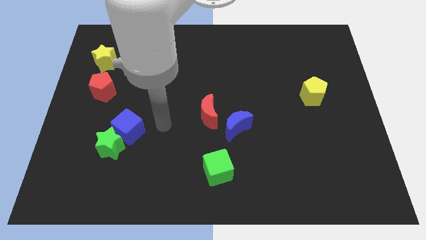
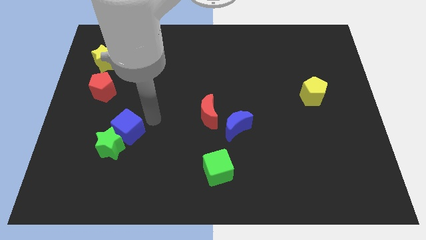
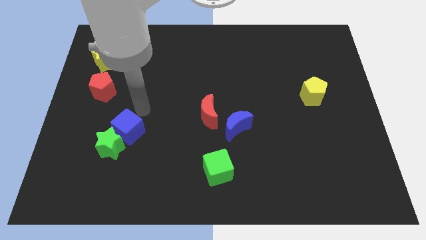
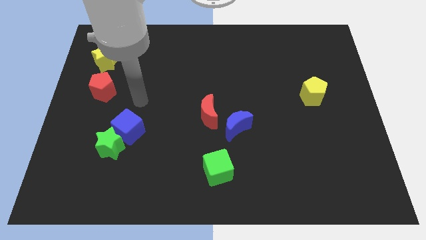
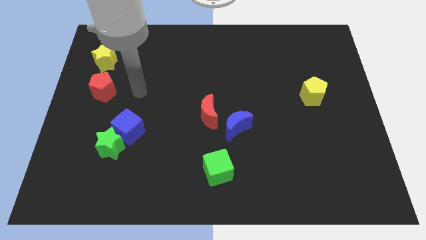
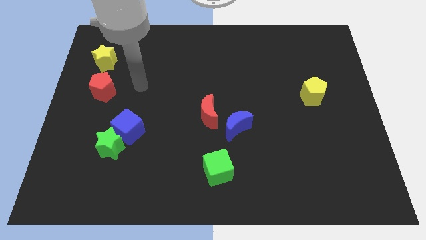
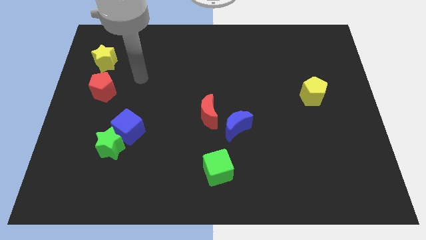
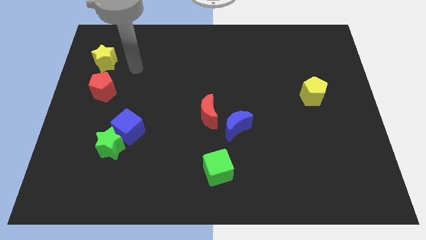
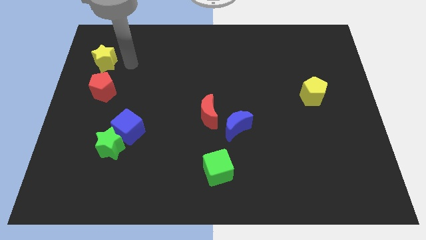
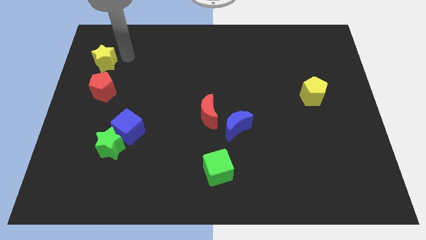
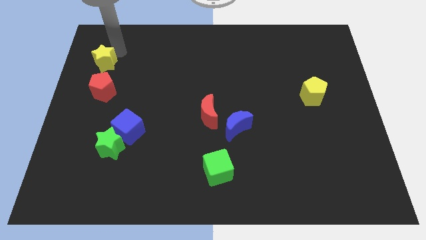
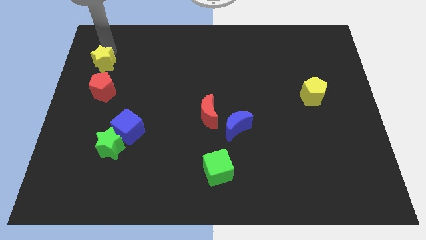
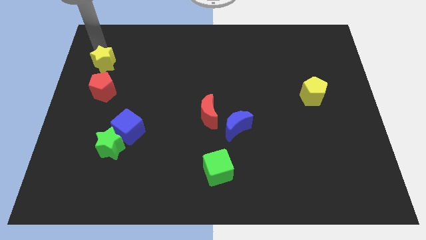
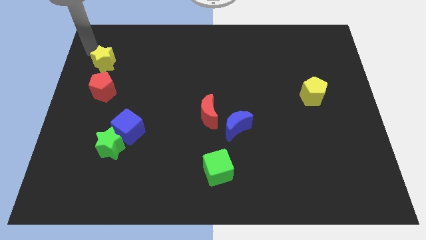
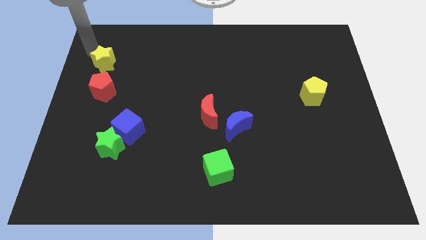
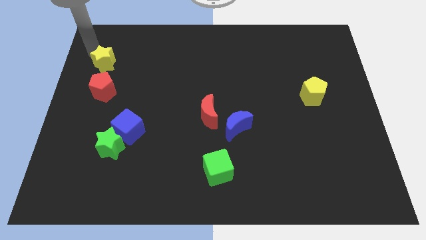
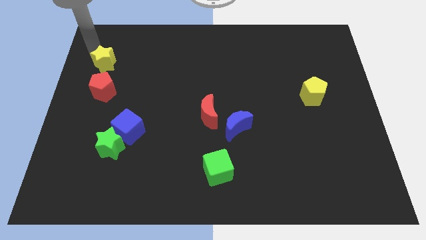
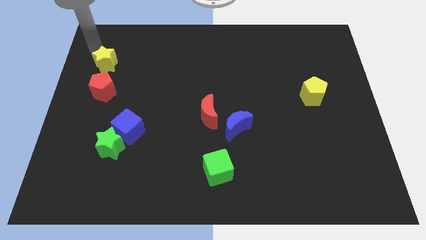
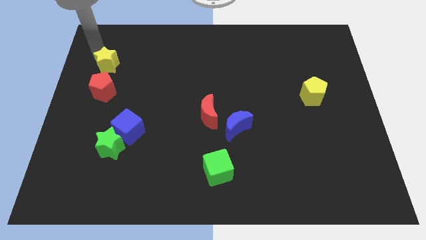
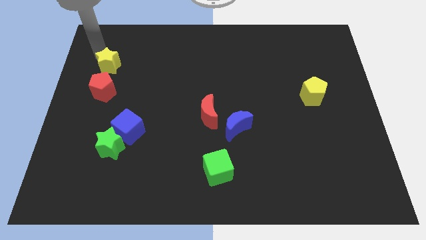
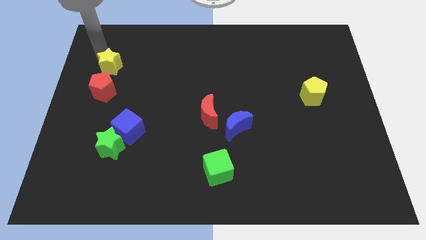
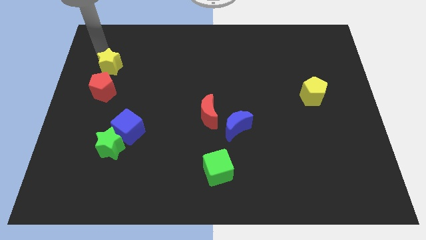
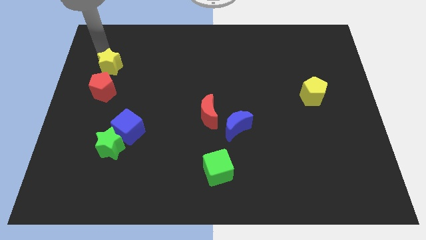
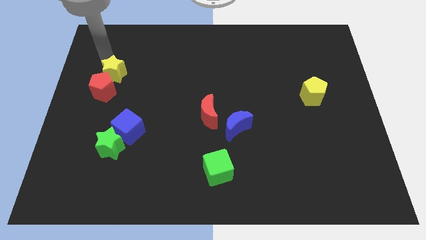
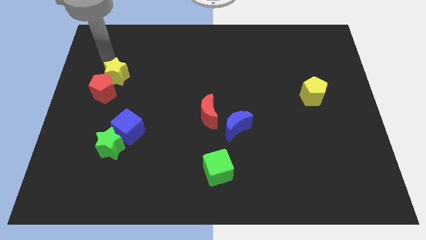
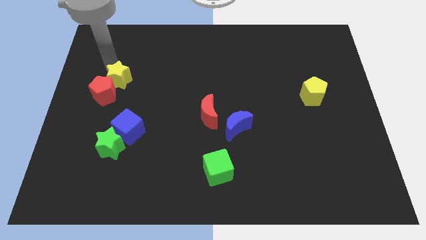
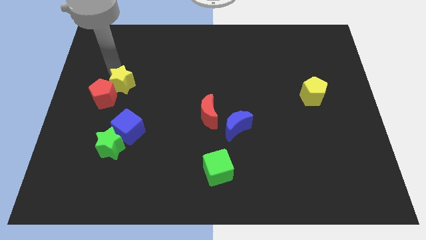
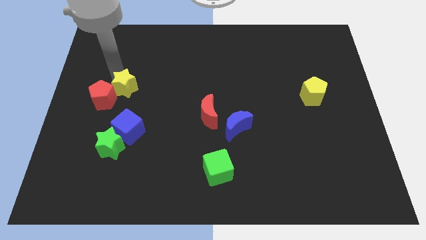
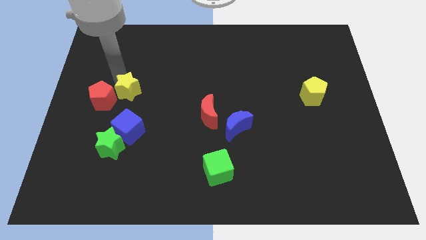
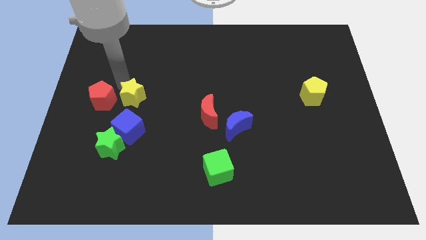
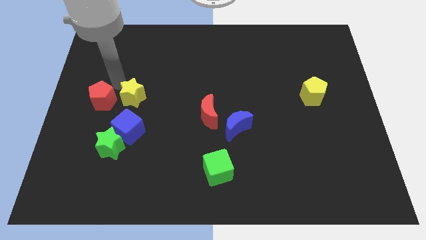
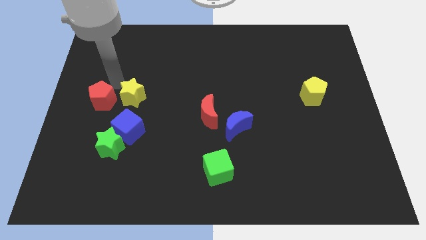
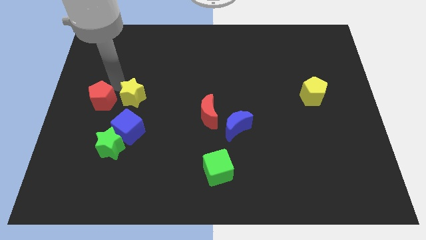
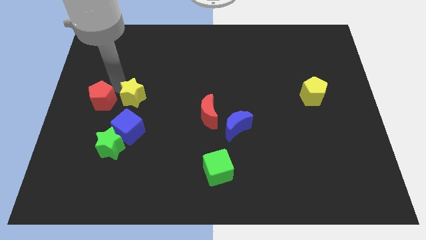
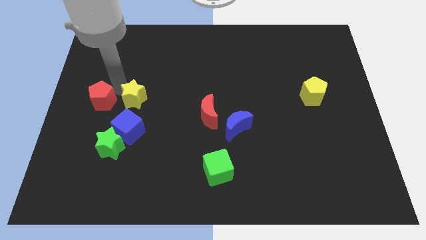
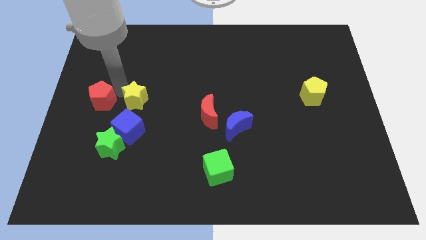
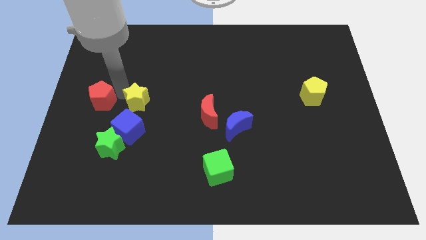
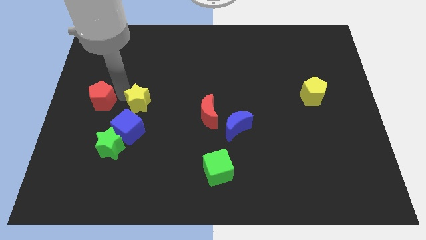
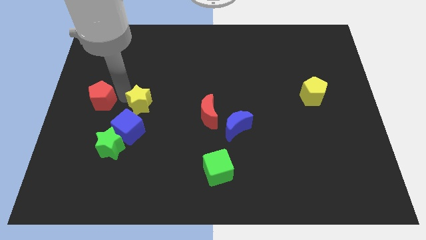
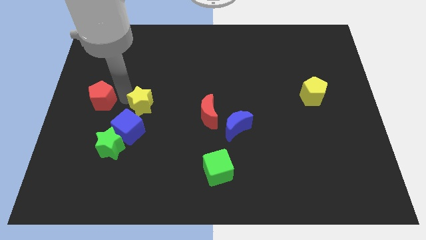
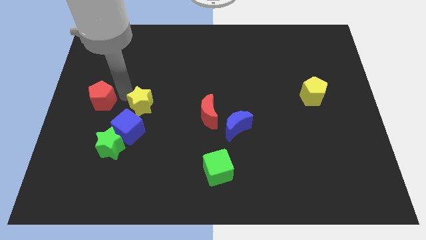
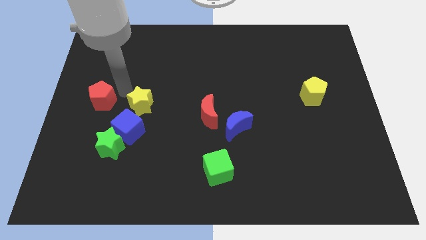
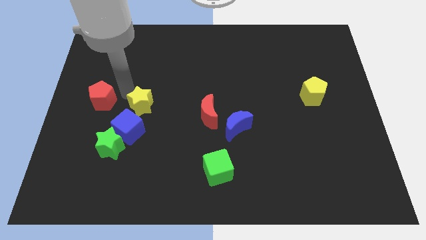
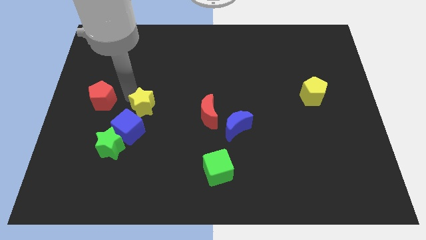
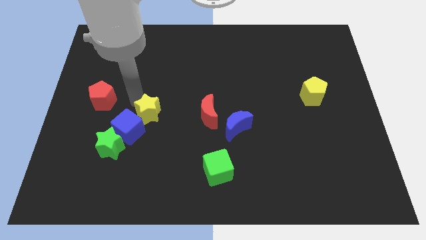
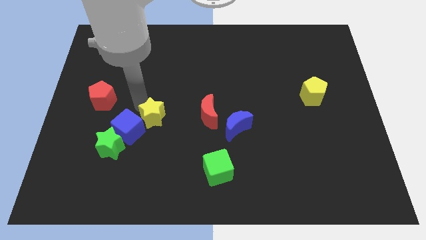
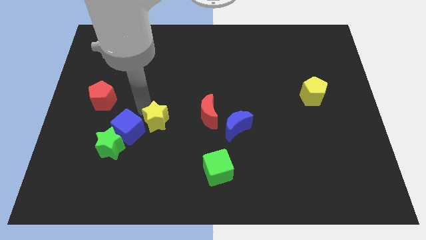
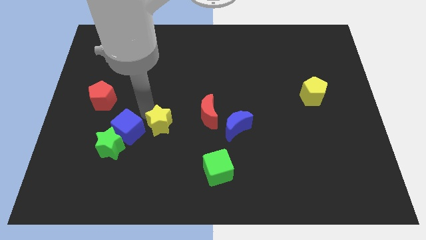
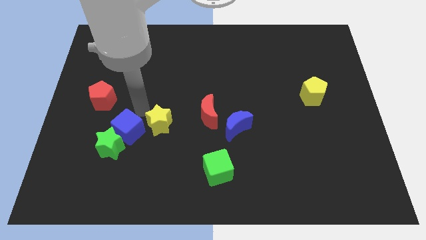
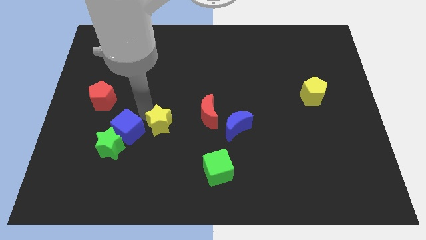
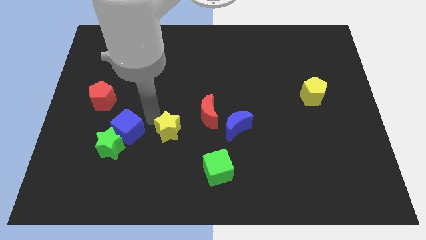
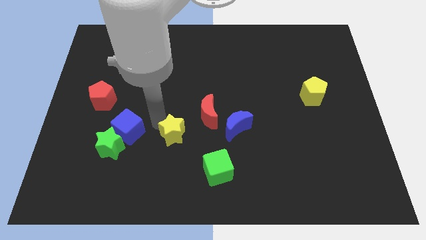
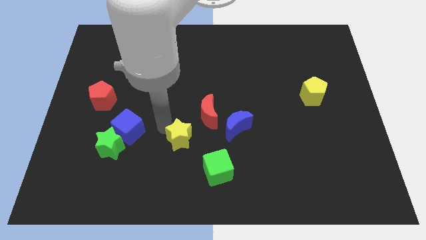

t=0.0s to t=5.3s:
slide the yellow star to the top left side of the green cube

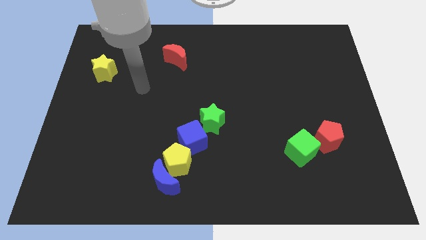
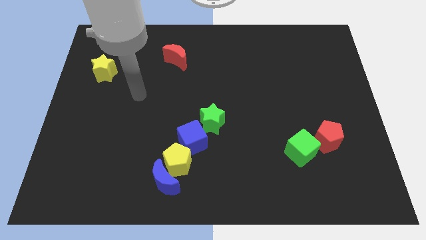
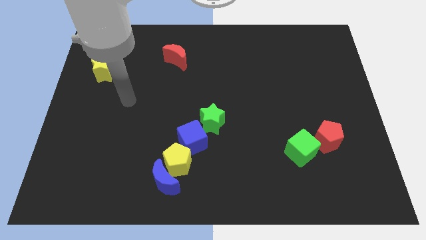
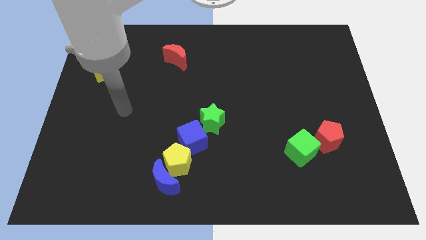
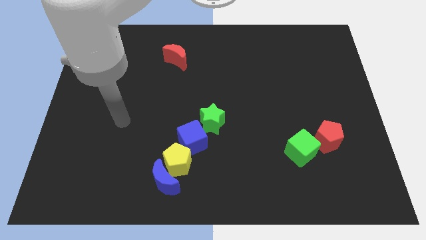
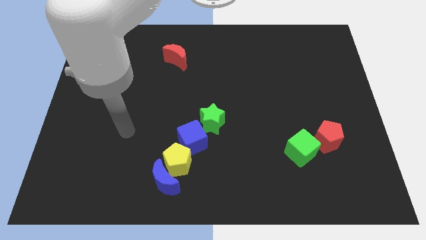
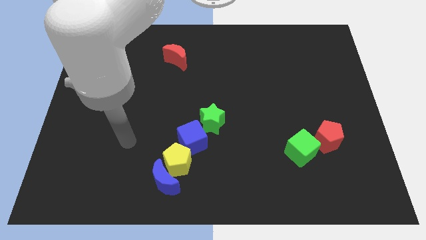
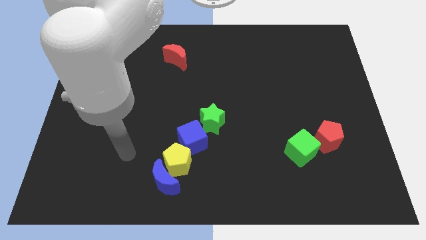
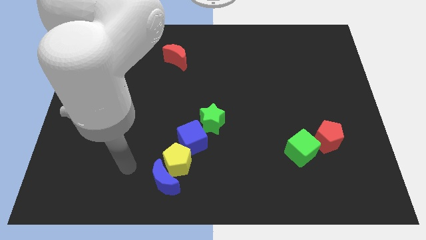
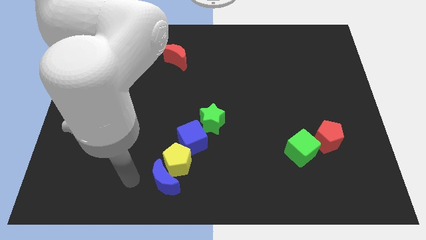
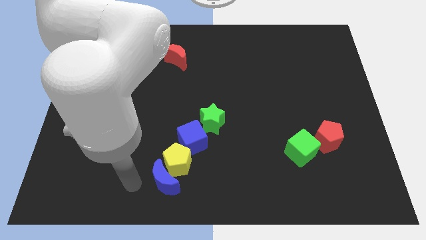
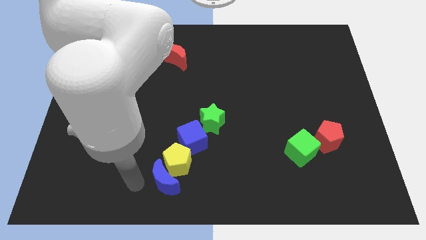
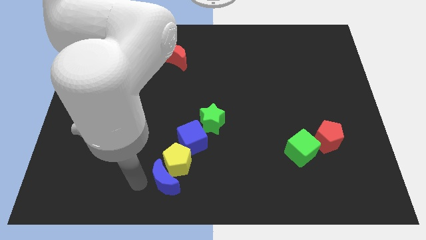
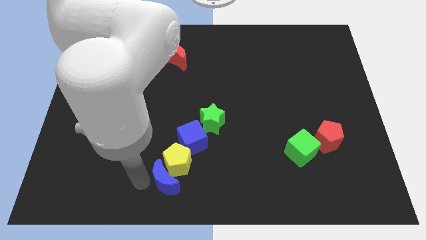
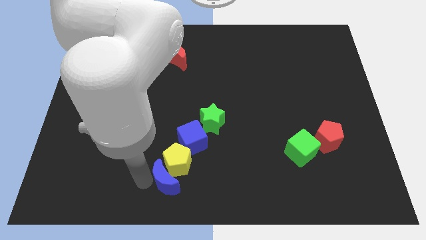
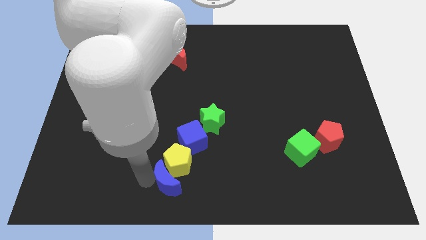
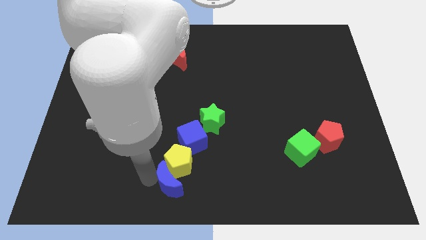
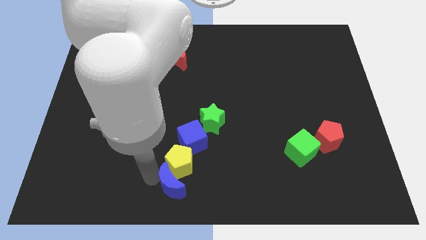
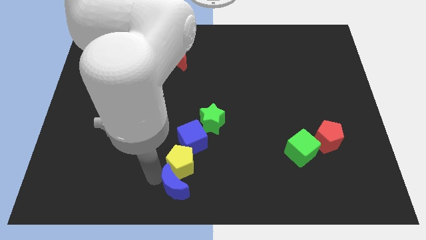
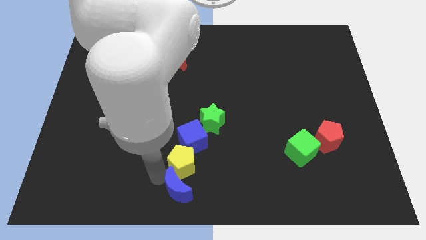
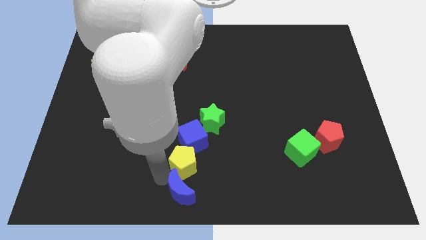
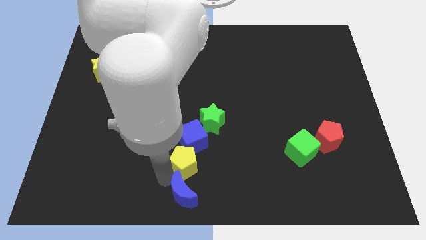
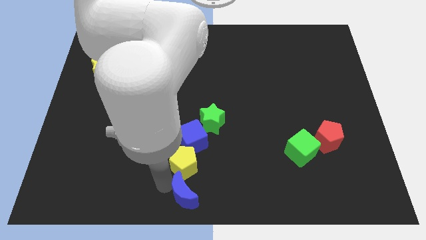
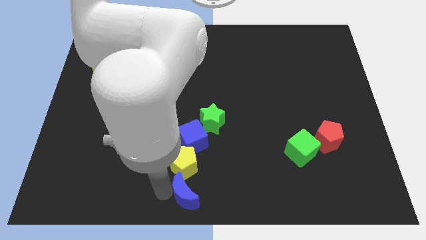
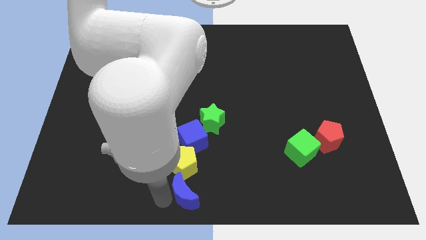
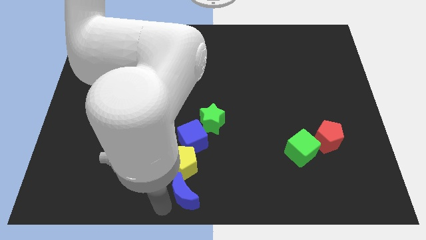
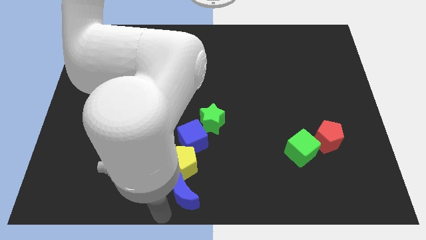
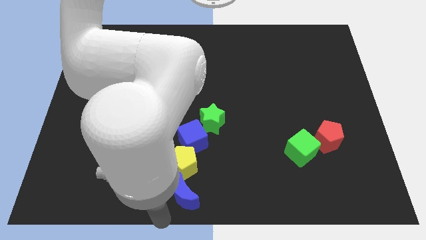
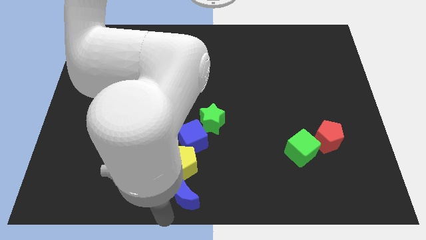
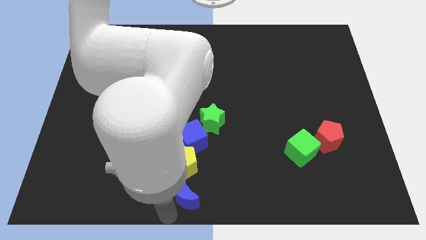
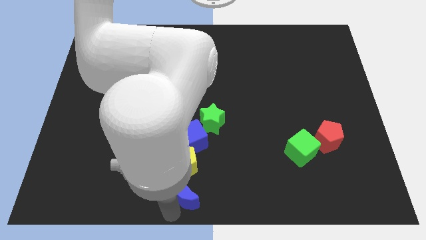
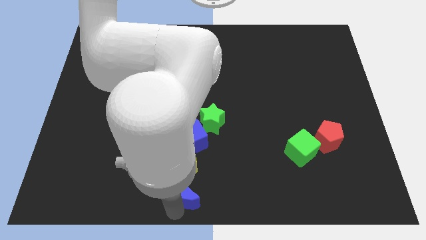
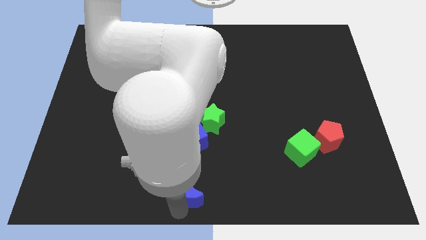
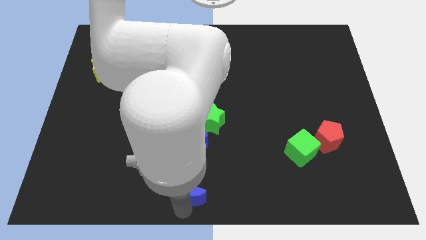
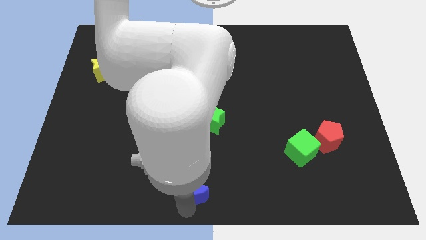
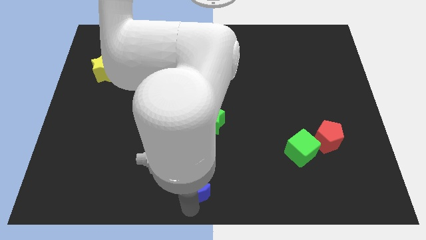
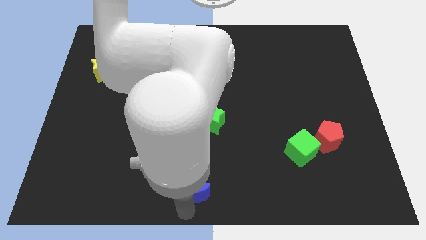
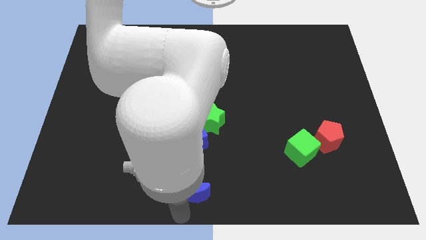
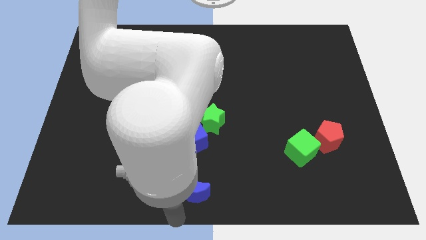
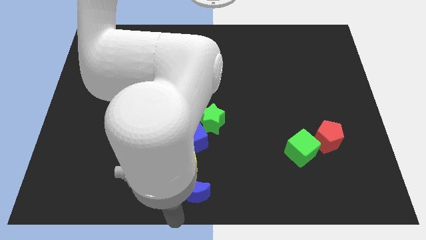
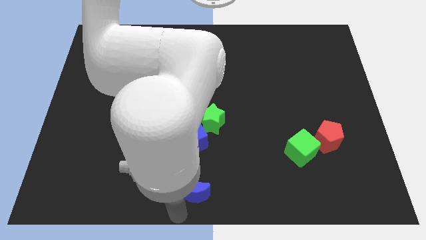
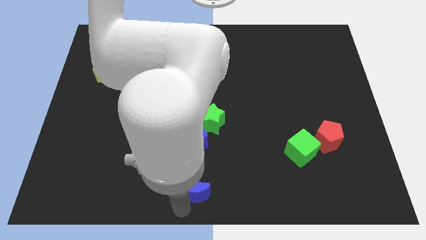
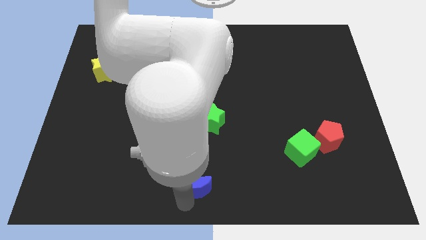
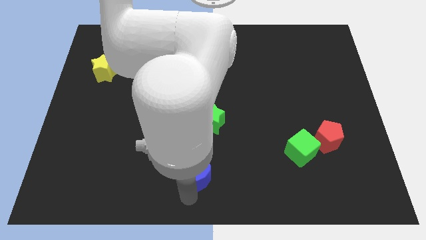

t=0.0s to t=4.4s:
move the blue moon to the right side of the yellow pentagon
